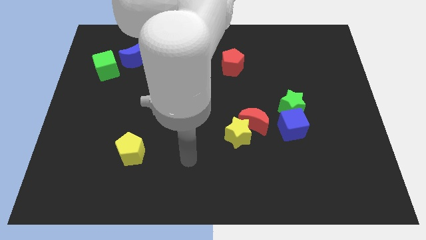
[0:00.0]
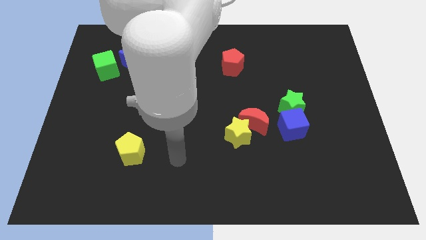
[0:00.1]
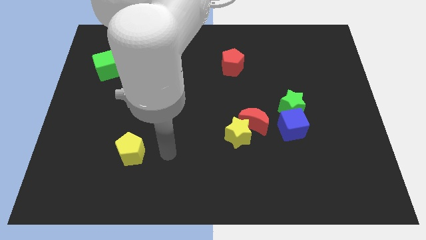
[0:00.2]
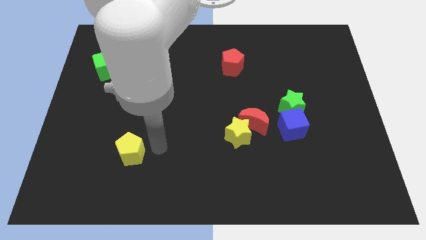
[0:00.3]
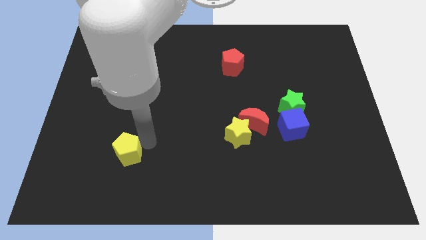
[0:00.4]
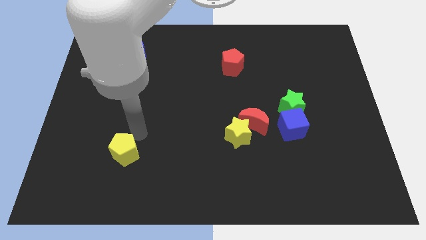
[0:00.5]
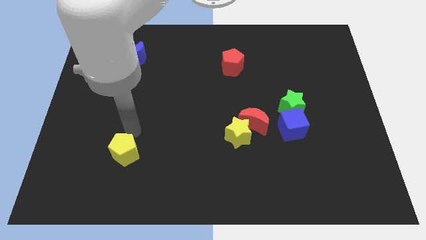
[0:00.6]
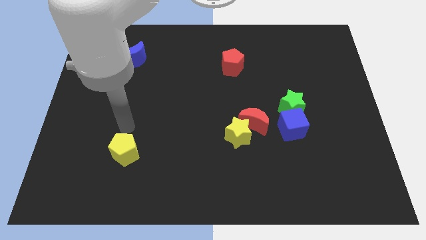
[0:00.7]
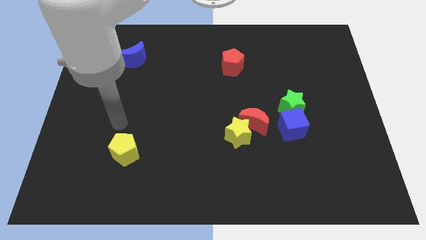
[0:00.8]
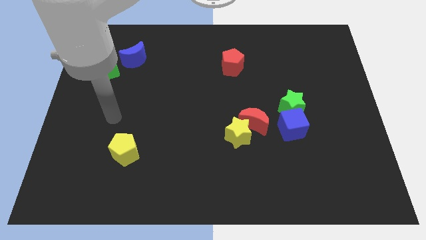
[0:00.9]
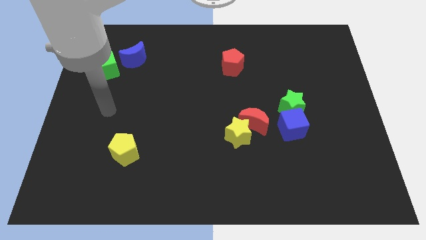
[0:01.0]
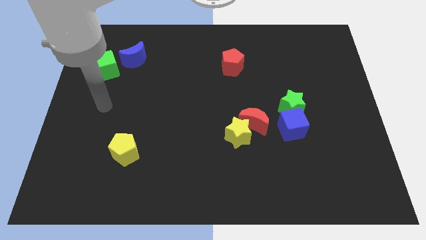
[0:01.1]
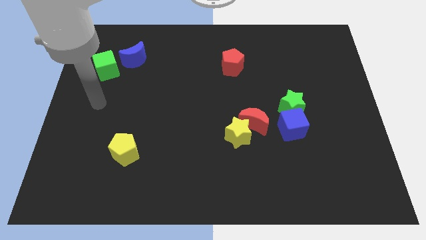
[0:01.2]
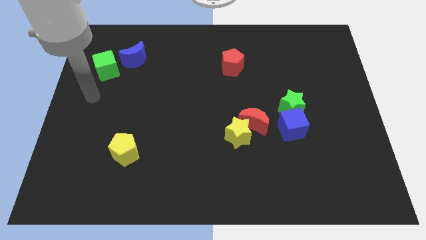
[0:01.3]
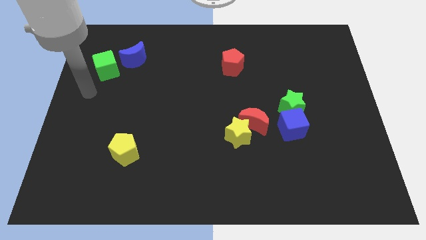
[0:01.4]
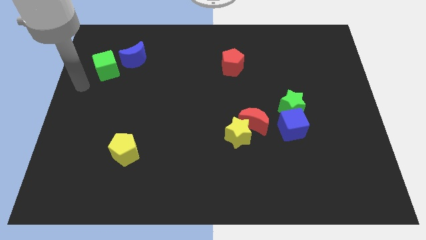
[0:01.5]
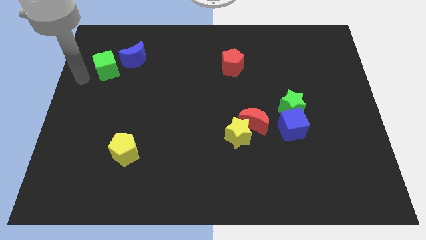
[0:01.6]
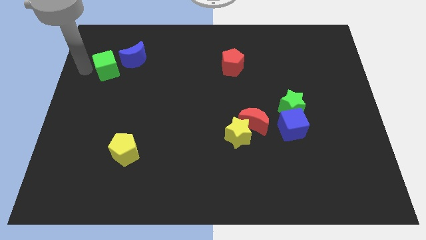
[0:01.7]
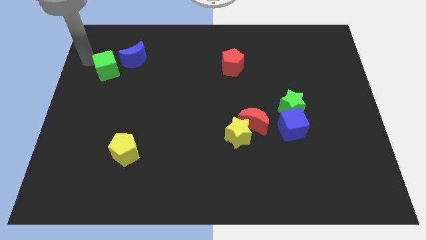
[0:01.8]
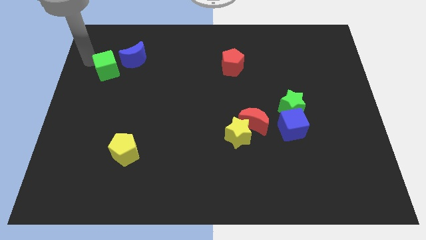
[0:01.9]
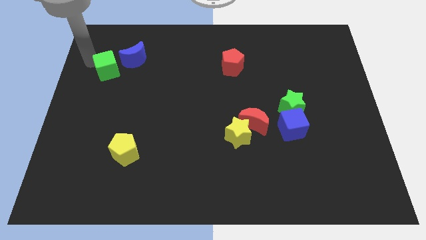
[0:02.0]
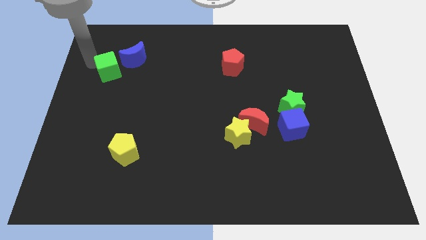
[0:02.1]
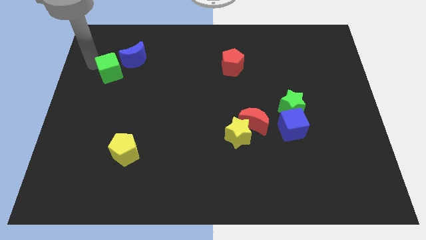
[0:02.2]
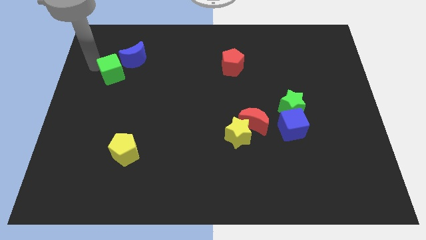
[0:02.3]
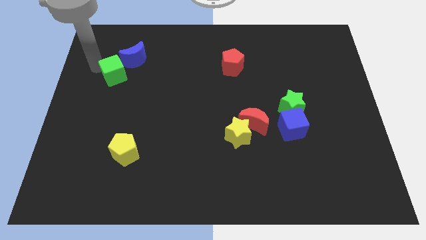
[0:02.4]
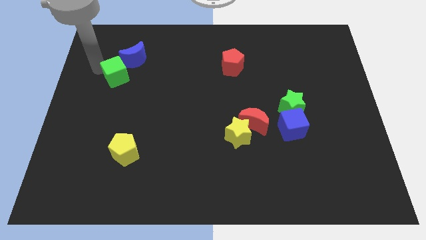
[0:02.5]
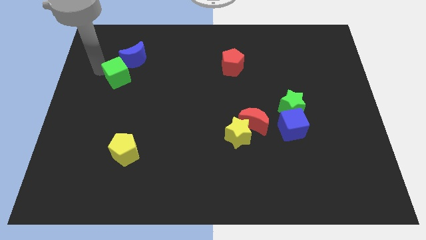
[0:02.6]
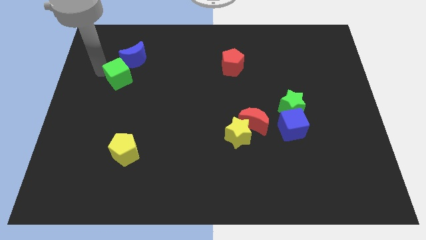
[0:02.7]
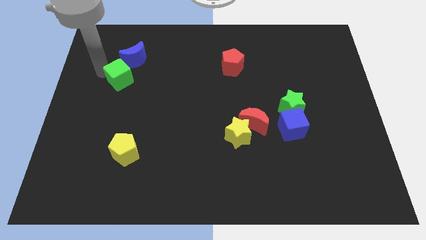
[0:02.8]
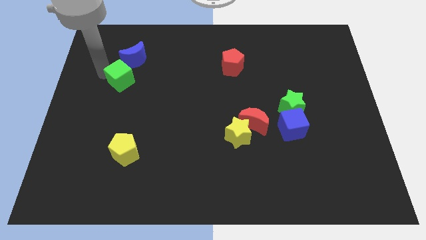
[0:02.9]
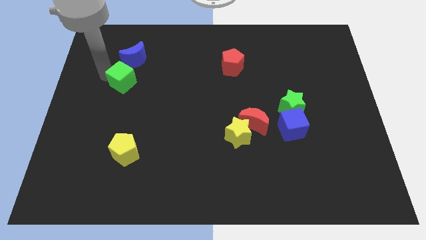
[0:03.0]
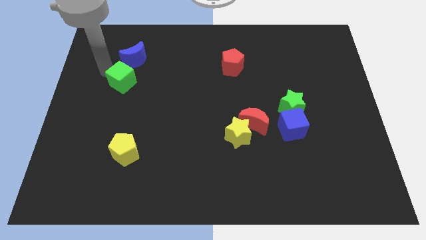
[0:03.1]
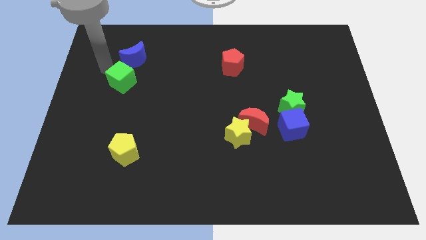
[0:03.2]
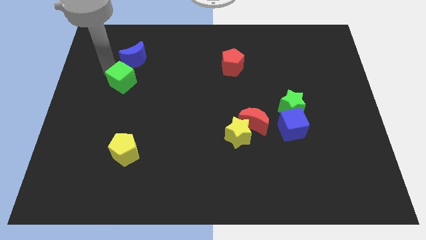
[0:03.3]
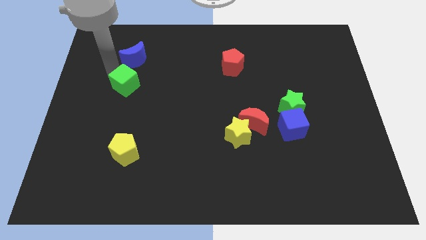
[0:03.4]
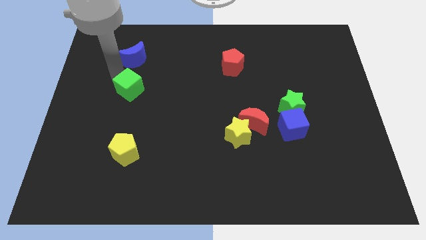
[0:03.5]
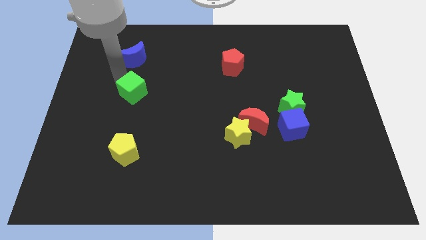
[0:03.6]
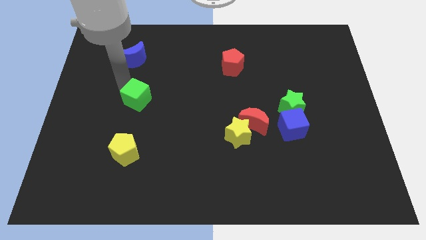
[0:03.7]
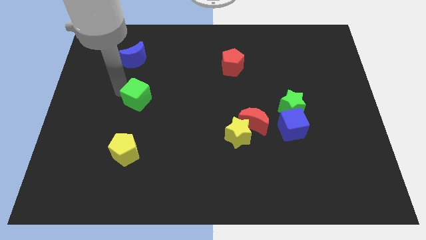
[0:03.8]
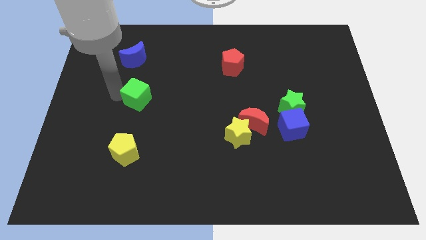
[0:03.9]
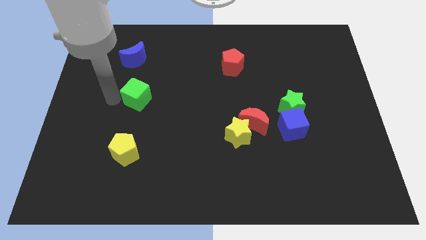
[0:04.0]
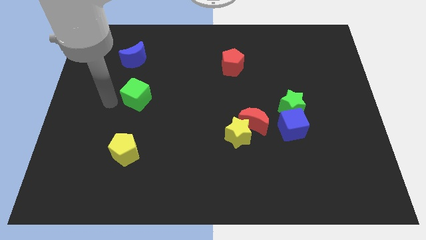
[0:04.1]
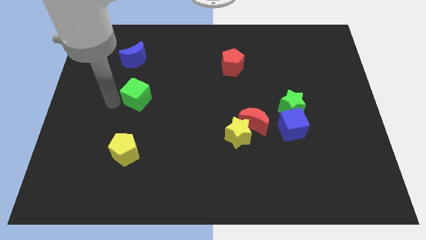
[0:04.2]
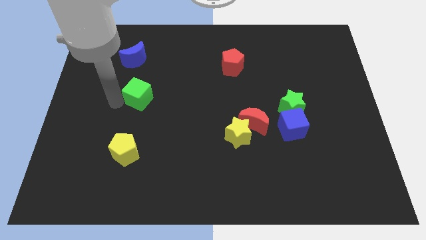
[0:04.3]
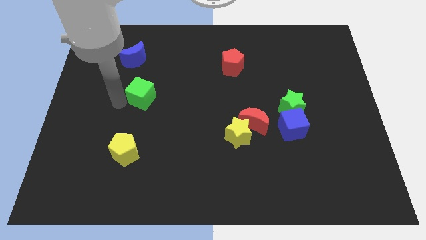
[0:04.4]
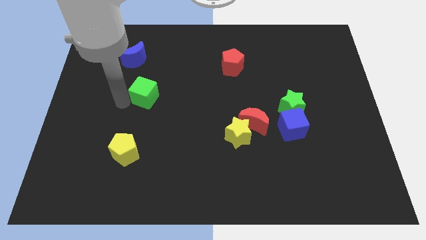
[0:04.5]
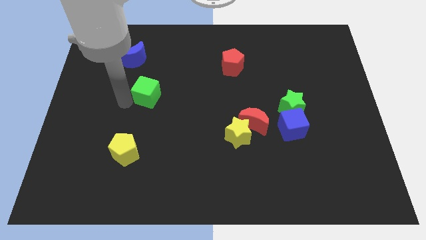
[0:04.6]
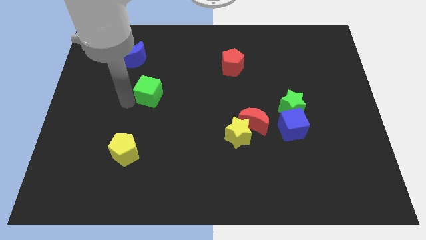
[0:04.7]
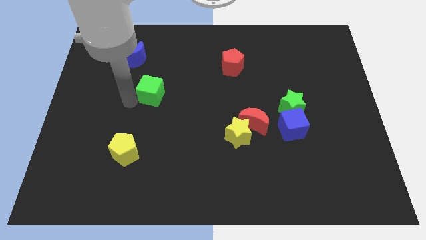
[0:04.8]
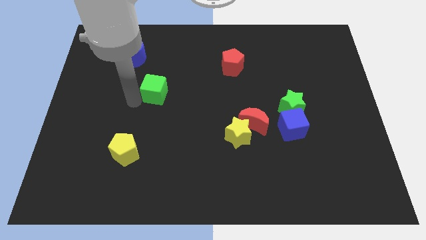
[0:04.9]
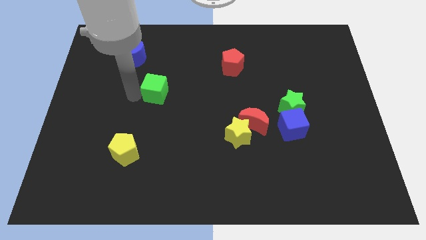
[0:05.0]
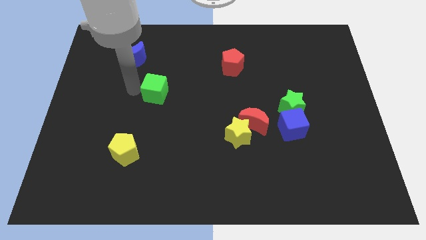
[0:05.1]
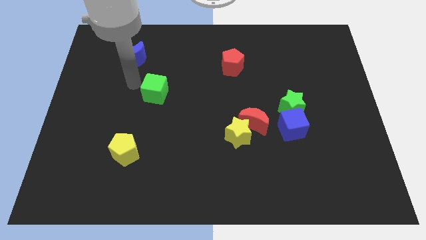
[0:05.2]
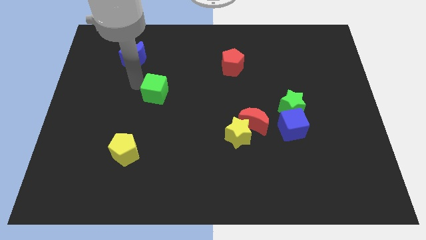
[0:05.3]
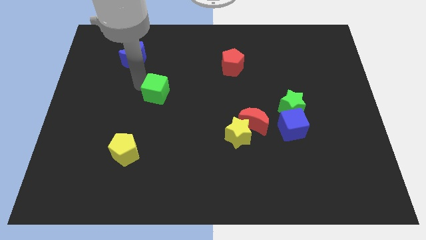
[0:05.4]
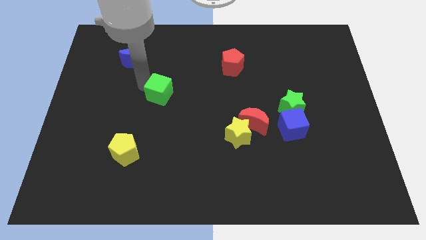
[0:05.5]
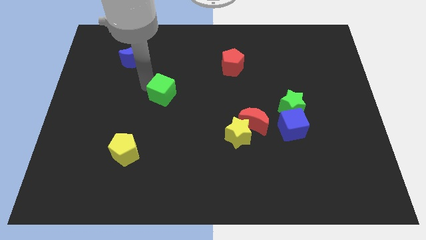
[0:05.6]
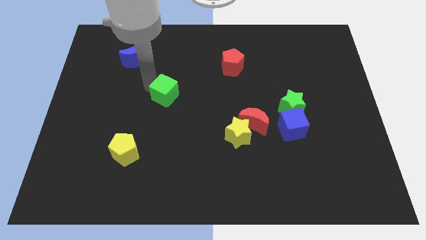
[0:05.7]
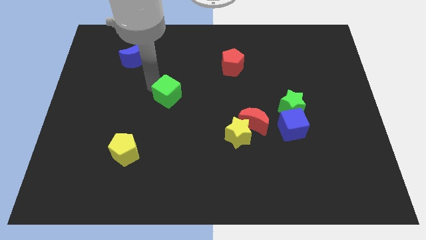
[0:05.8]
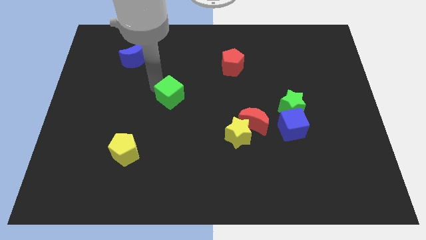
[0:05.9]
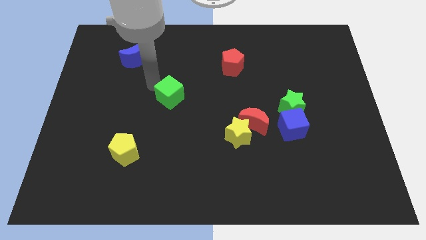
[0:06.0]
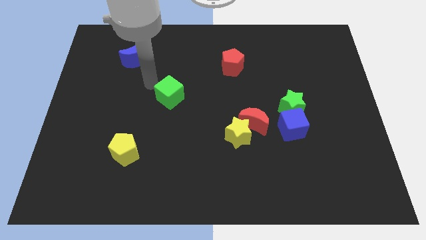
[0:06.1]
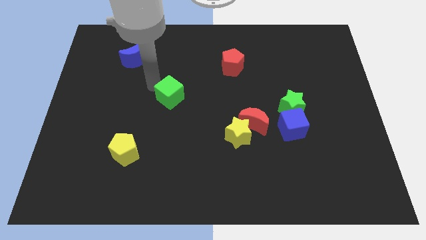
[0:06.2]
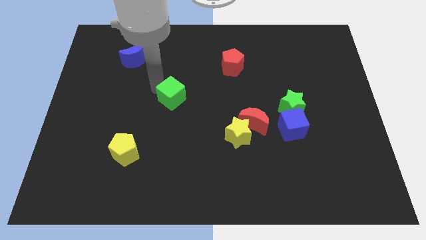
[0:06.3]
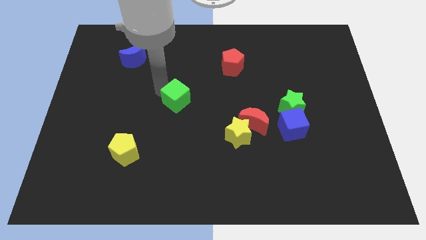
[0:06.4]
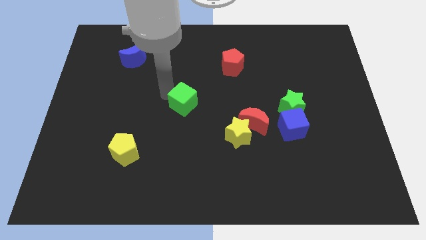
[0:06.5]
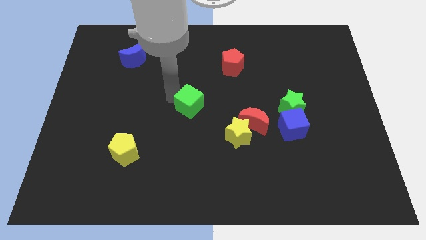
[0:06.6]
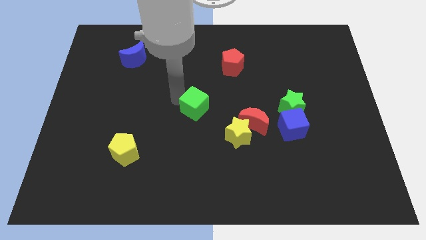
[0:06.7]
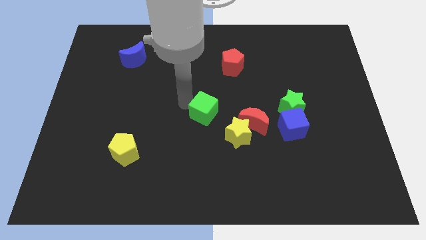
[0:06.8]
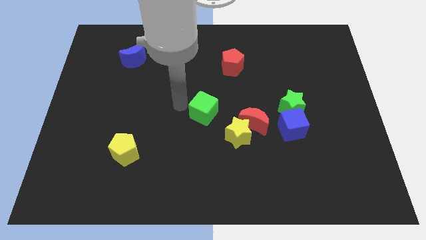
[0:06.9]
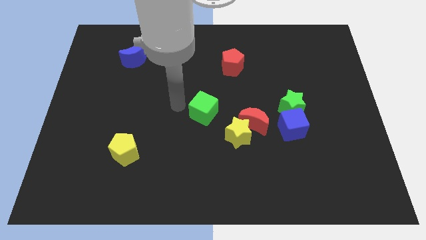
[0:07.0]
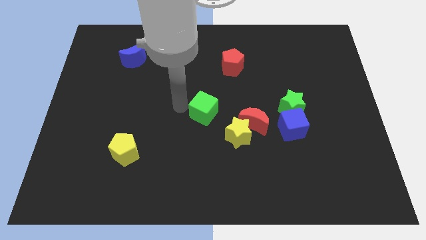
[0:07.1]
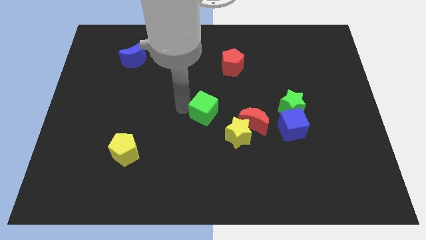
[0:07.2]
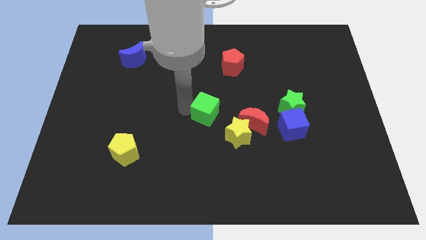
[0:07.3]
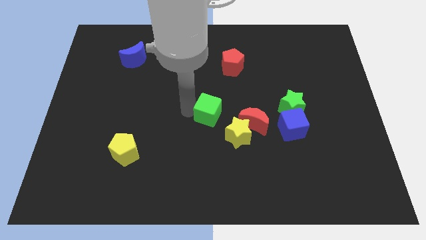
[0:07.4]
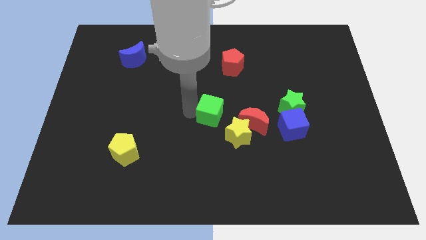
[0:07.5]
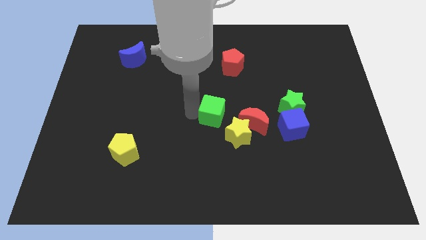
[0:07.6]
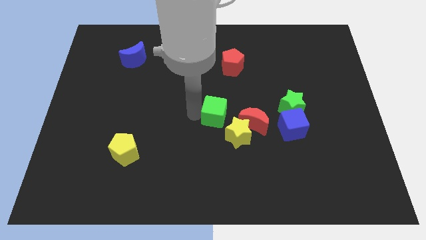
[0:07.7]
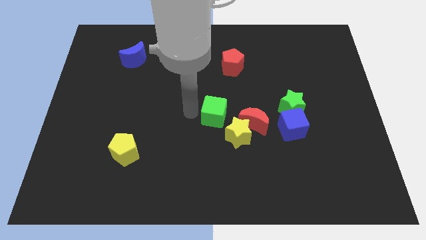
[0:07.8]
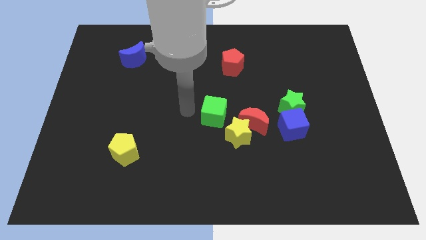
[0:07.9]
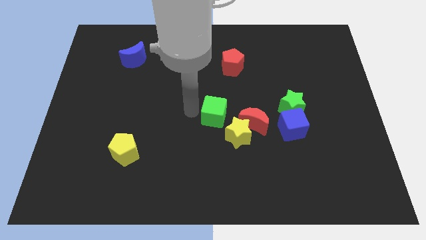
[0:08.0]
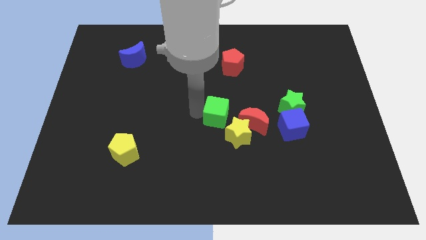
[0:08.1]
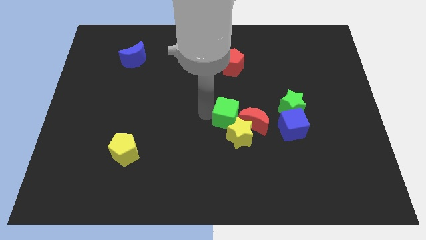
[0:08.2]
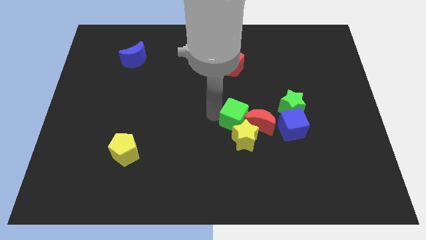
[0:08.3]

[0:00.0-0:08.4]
slide the green cube towards the red moon
